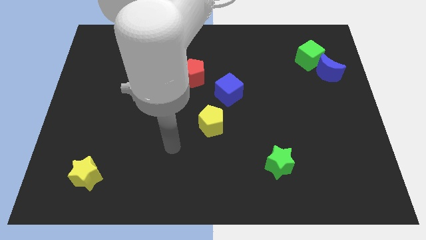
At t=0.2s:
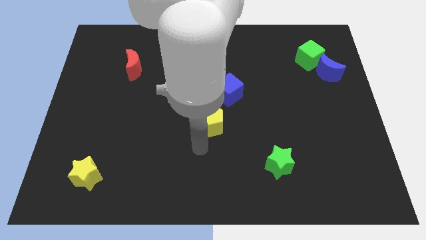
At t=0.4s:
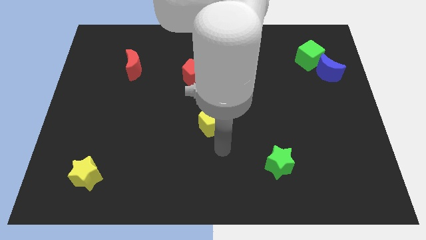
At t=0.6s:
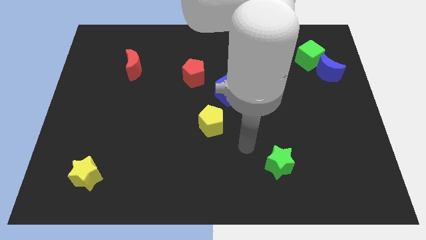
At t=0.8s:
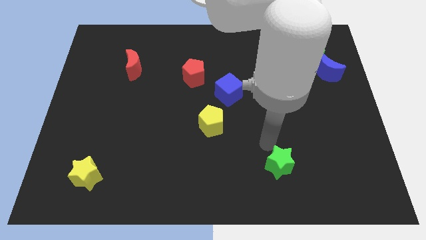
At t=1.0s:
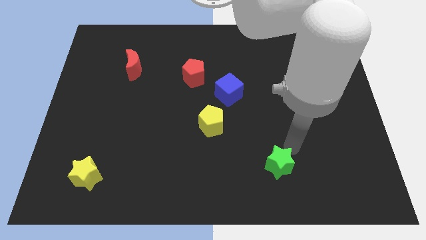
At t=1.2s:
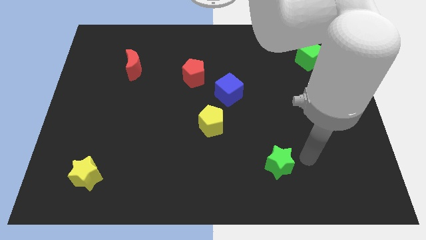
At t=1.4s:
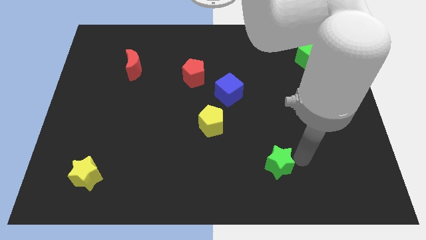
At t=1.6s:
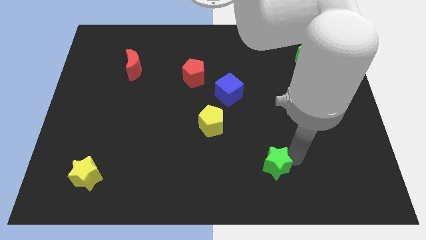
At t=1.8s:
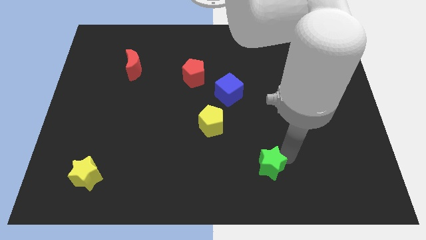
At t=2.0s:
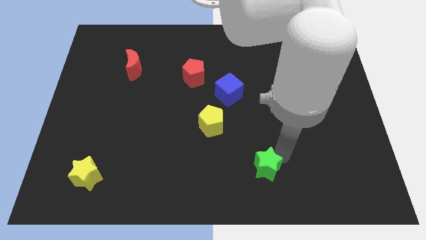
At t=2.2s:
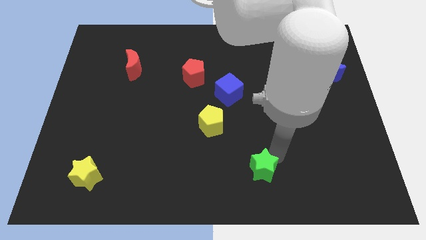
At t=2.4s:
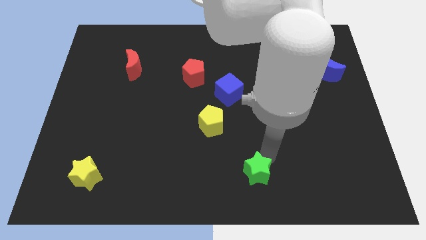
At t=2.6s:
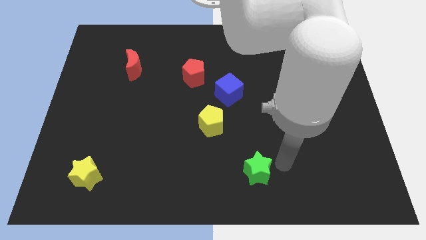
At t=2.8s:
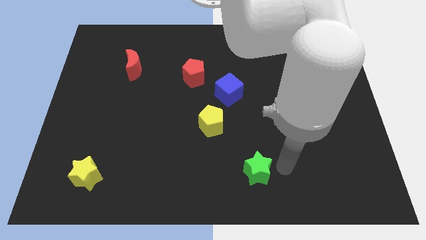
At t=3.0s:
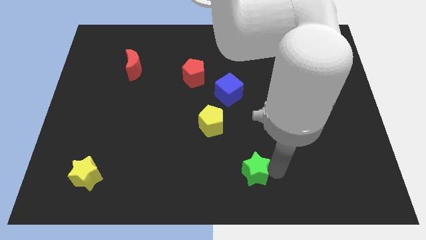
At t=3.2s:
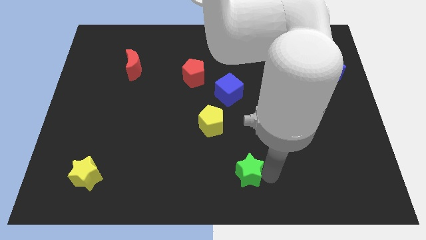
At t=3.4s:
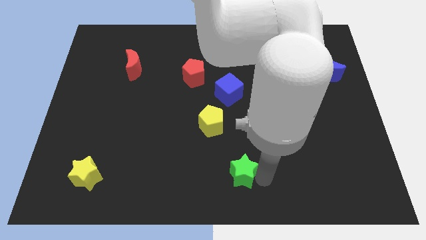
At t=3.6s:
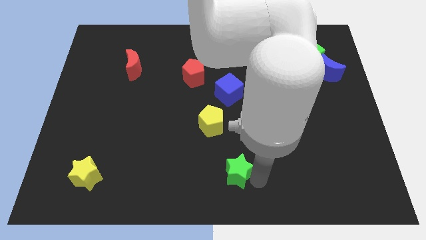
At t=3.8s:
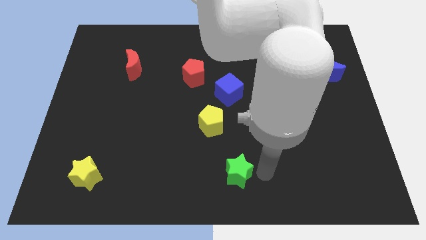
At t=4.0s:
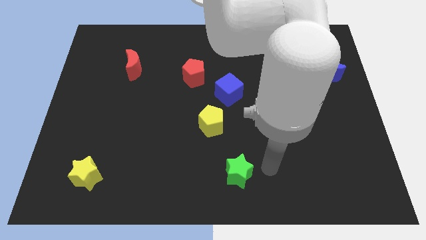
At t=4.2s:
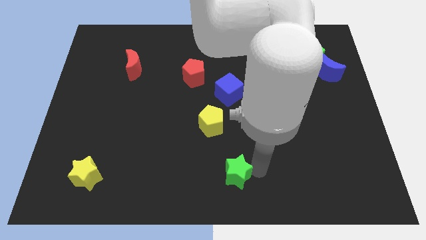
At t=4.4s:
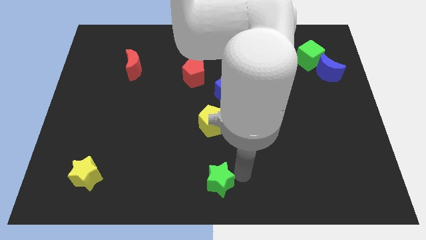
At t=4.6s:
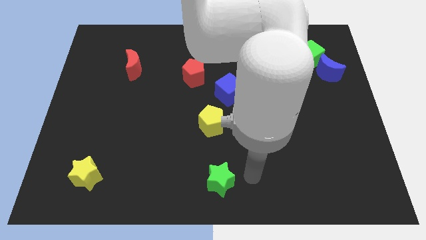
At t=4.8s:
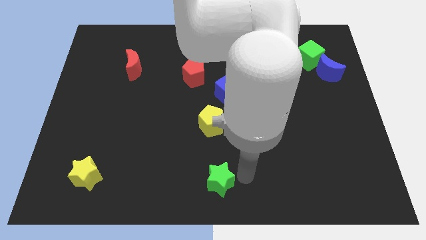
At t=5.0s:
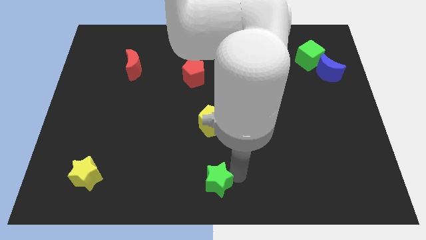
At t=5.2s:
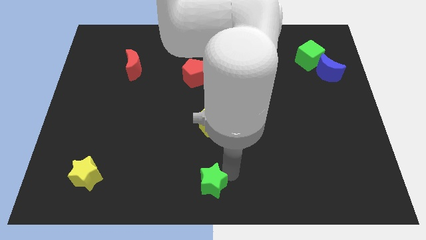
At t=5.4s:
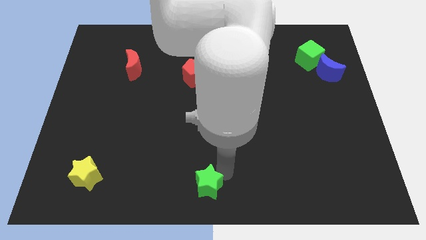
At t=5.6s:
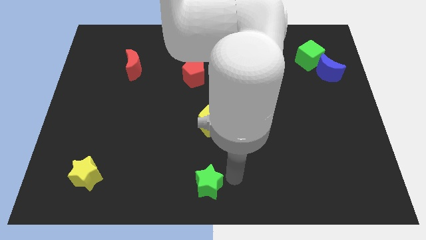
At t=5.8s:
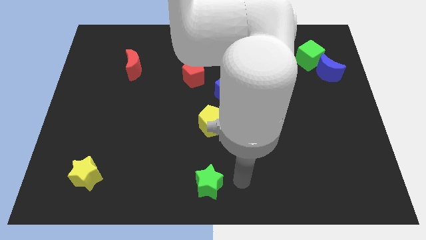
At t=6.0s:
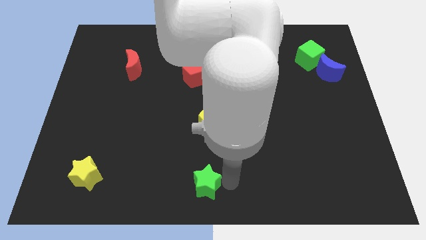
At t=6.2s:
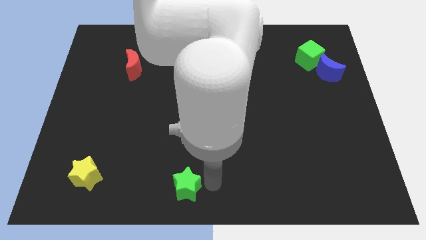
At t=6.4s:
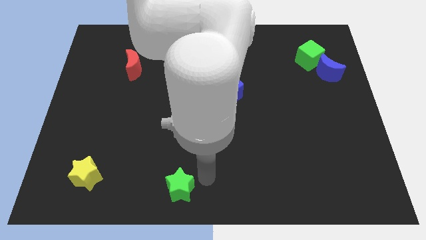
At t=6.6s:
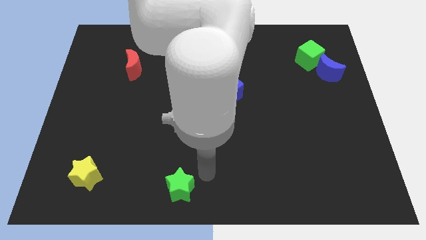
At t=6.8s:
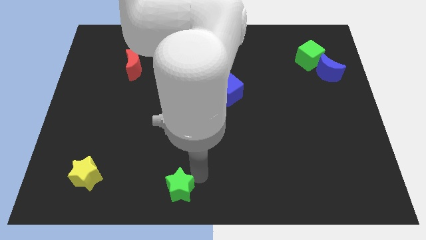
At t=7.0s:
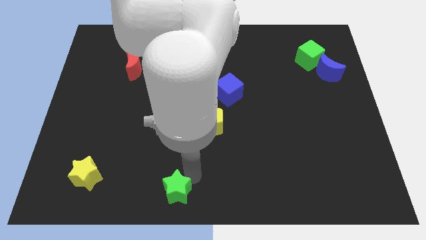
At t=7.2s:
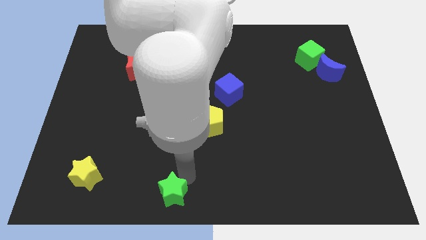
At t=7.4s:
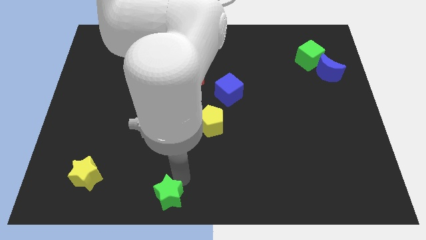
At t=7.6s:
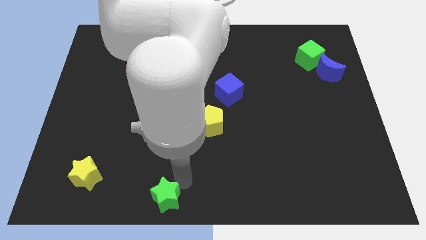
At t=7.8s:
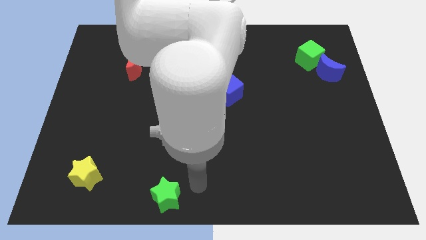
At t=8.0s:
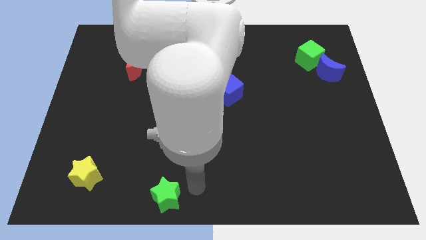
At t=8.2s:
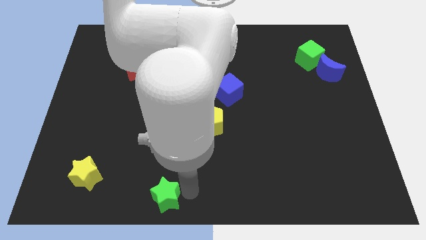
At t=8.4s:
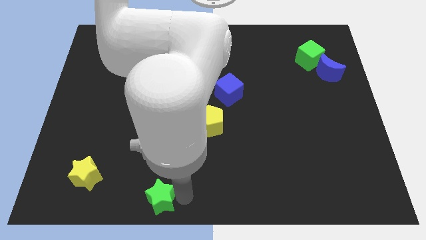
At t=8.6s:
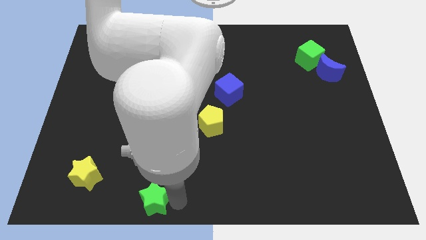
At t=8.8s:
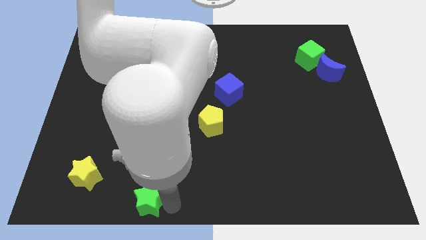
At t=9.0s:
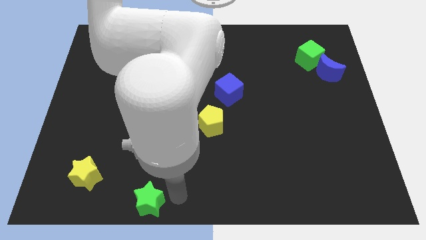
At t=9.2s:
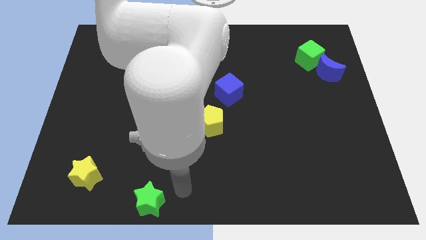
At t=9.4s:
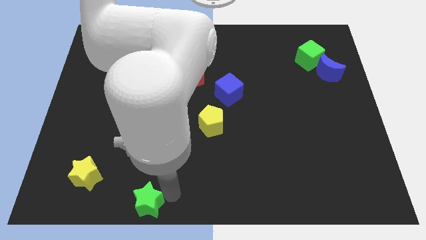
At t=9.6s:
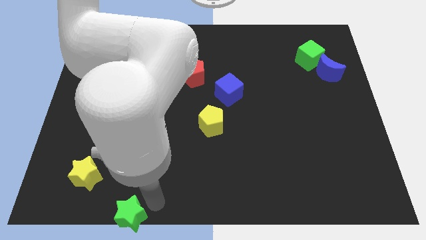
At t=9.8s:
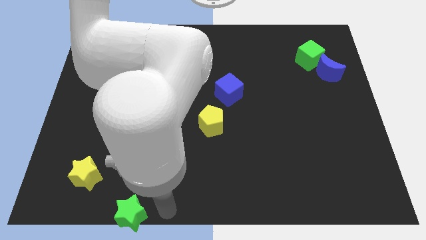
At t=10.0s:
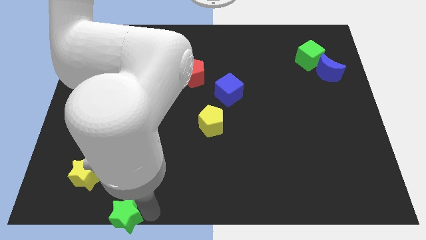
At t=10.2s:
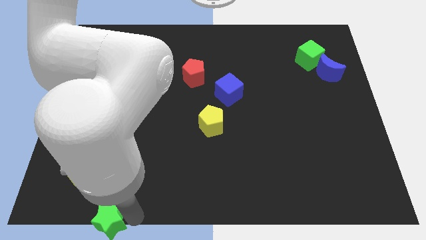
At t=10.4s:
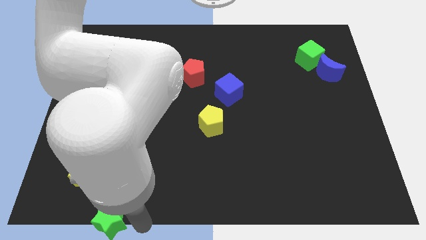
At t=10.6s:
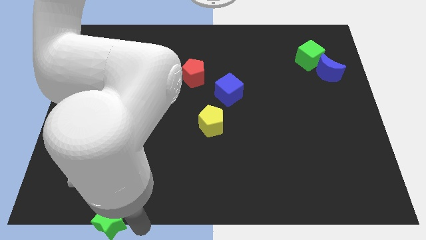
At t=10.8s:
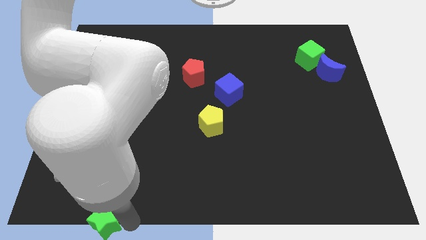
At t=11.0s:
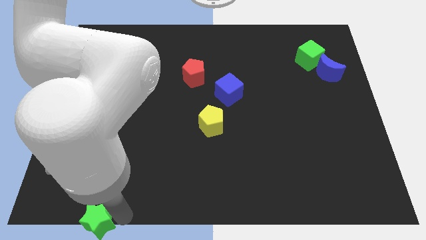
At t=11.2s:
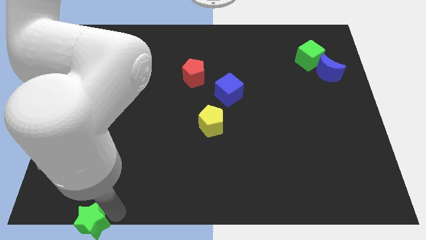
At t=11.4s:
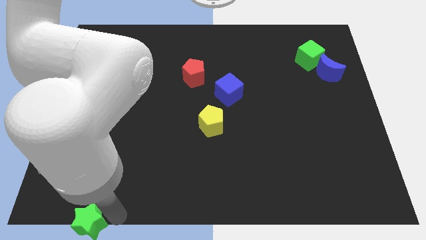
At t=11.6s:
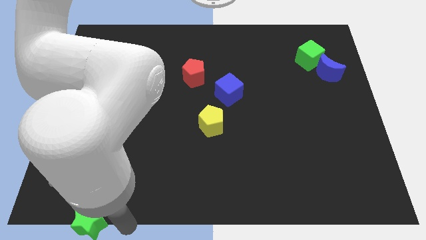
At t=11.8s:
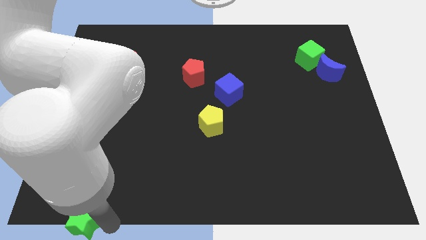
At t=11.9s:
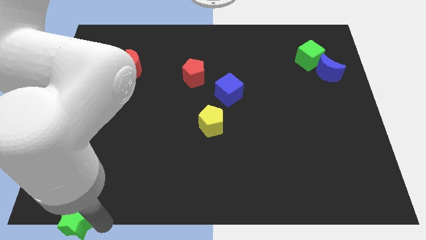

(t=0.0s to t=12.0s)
put the green star to the bottom left of the board
